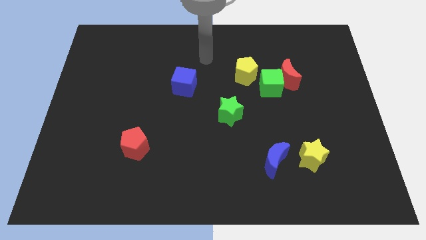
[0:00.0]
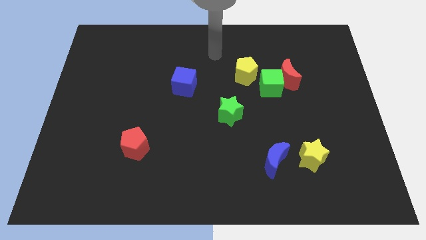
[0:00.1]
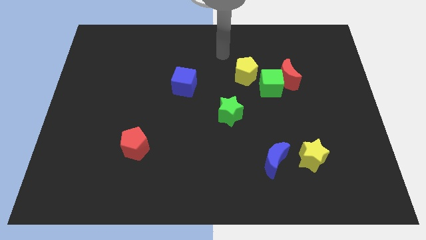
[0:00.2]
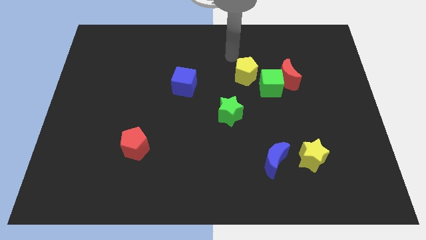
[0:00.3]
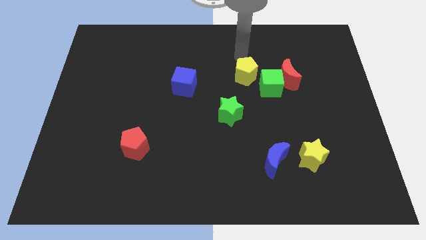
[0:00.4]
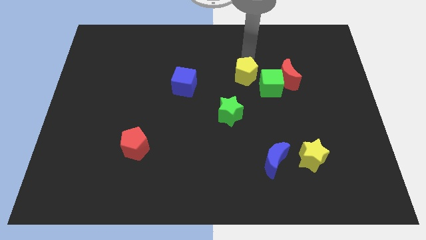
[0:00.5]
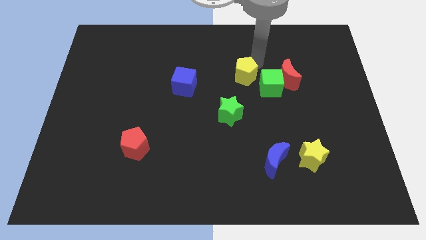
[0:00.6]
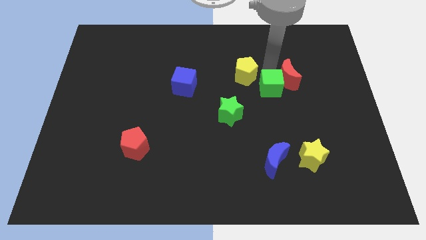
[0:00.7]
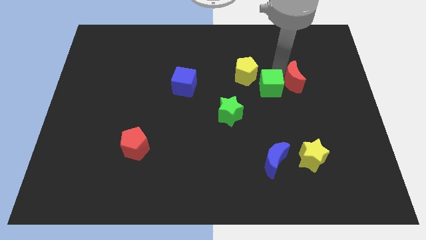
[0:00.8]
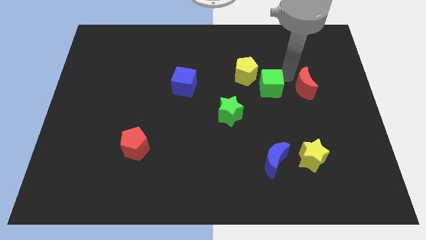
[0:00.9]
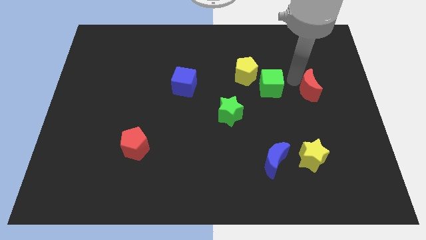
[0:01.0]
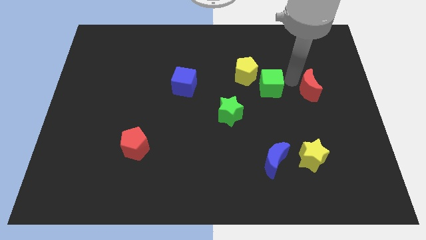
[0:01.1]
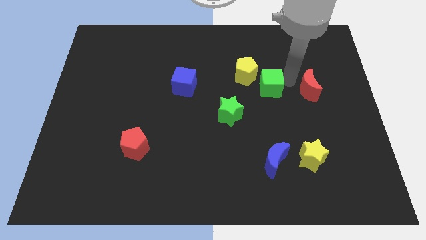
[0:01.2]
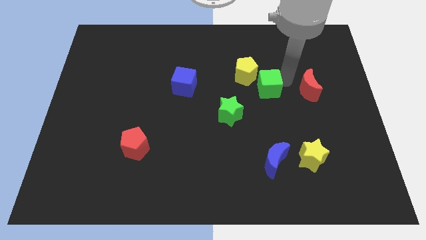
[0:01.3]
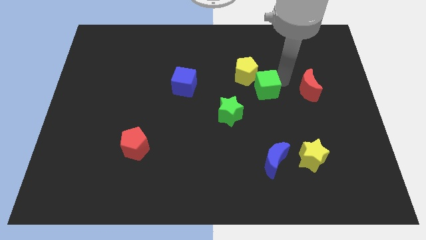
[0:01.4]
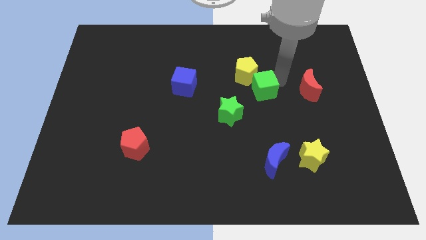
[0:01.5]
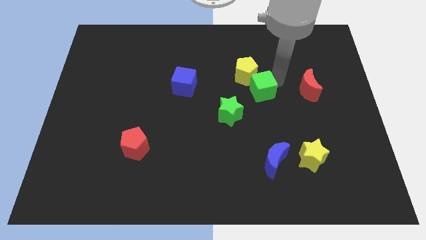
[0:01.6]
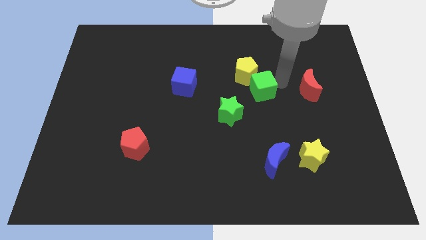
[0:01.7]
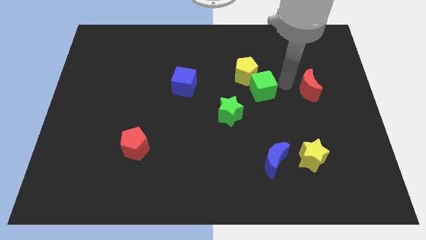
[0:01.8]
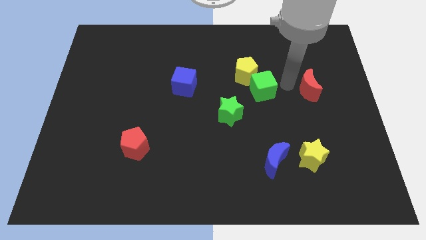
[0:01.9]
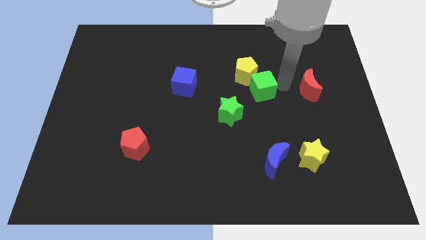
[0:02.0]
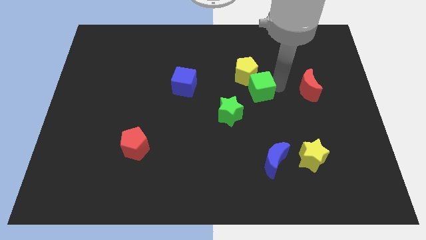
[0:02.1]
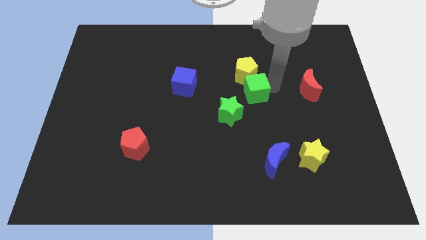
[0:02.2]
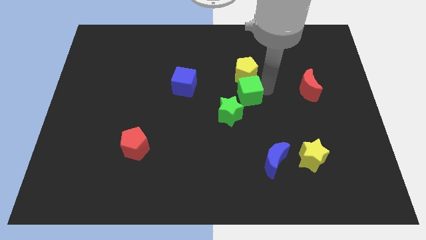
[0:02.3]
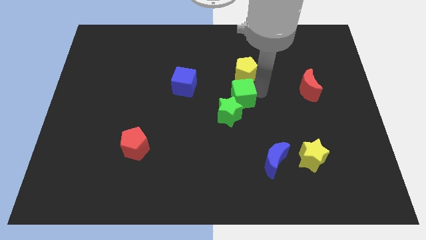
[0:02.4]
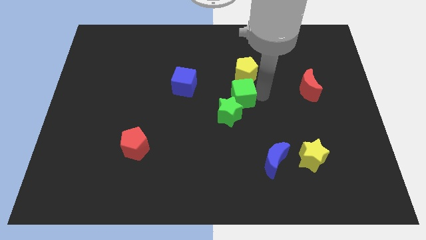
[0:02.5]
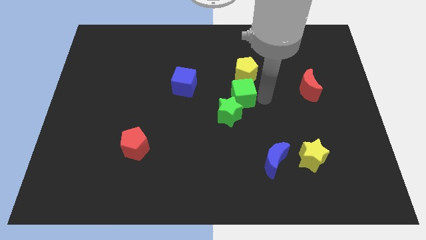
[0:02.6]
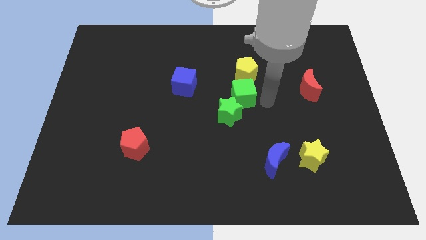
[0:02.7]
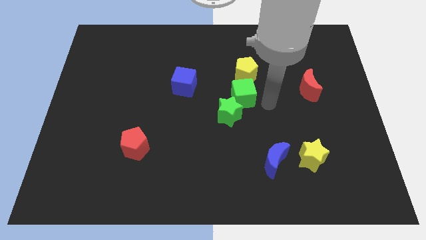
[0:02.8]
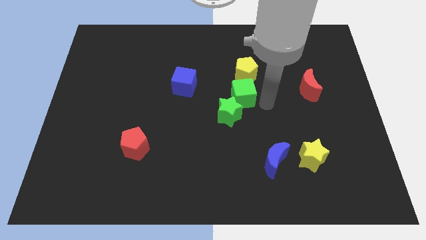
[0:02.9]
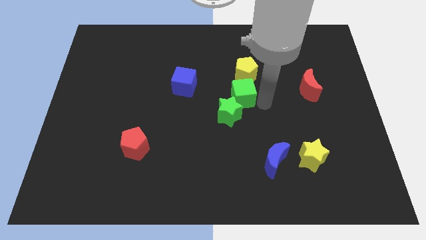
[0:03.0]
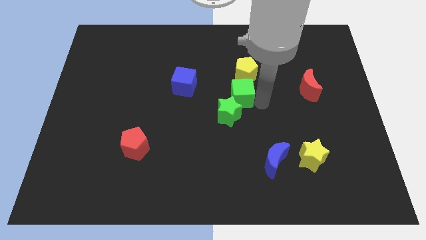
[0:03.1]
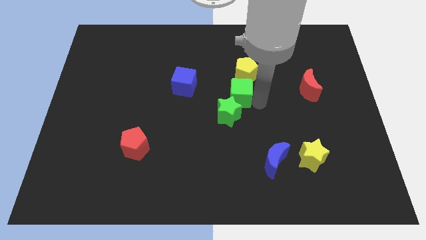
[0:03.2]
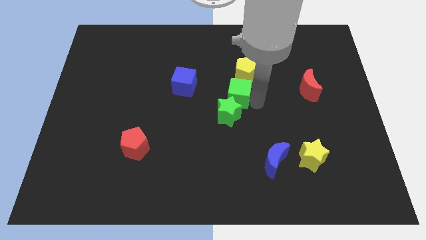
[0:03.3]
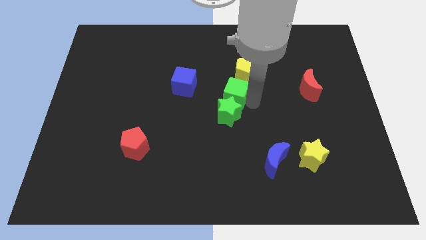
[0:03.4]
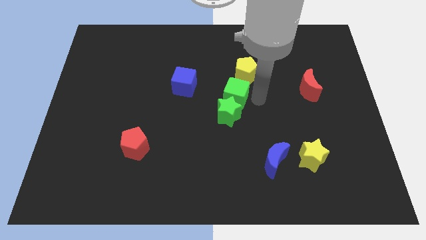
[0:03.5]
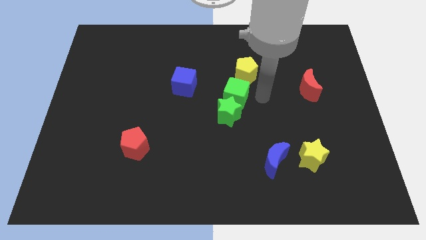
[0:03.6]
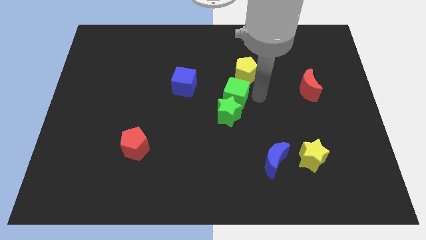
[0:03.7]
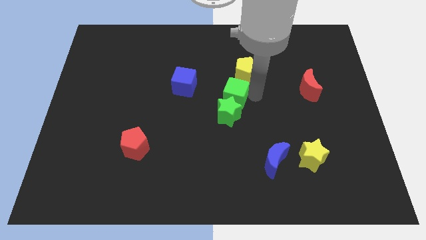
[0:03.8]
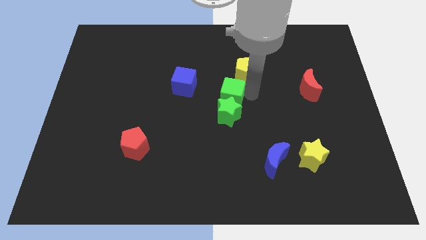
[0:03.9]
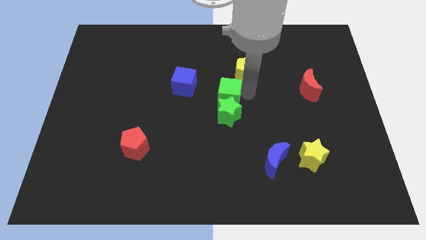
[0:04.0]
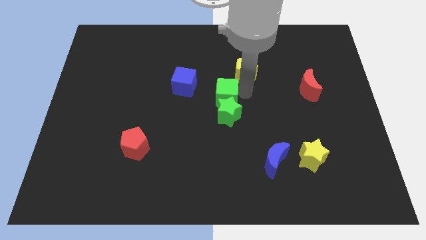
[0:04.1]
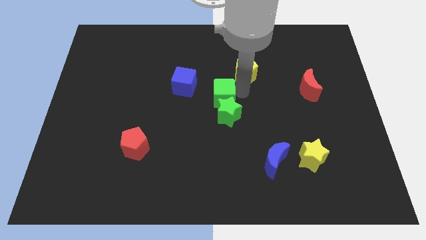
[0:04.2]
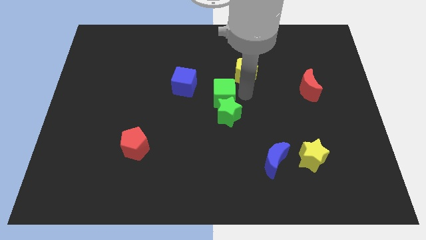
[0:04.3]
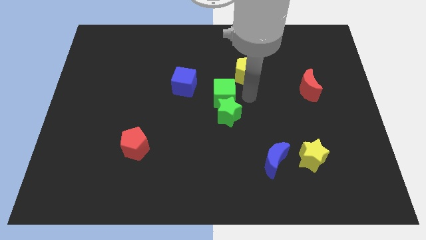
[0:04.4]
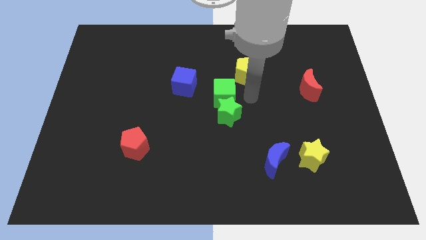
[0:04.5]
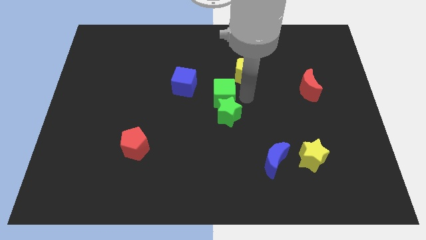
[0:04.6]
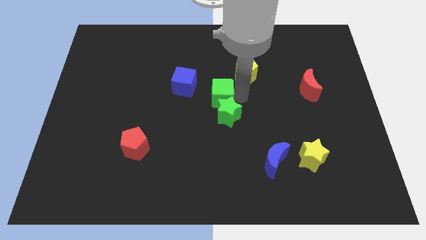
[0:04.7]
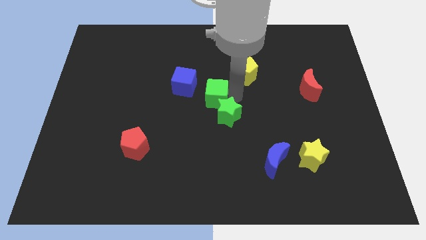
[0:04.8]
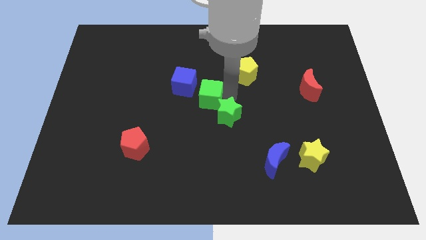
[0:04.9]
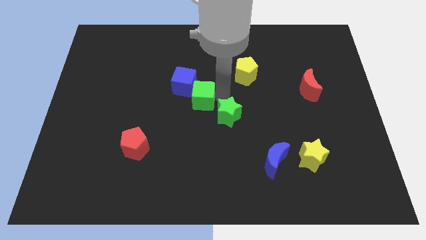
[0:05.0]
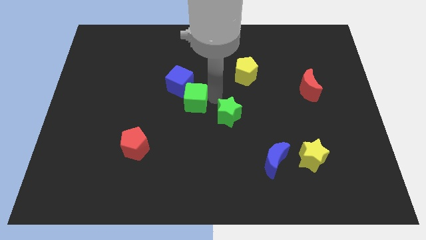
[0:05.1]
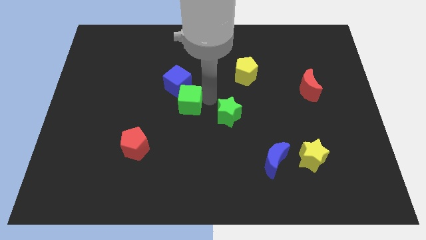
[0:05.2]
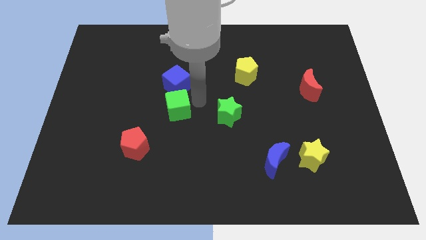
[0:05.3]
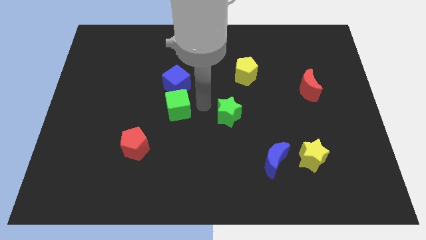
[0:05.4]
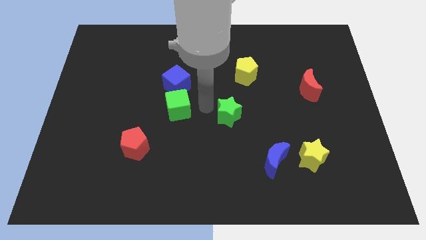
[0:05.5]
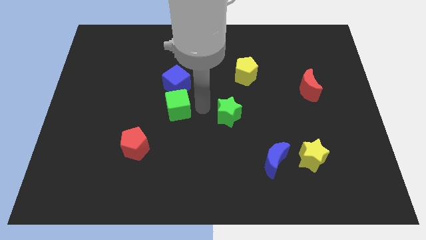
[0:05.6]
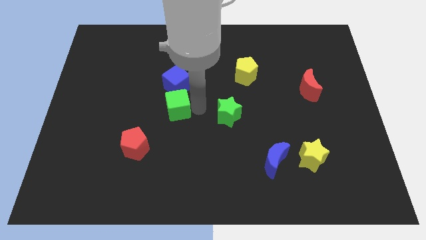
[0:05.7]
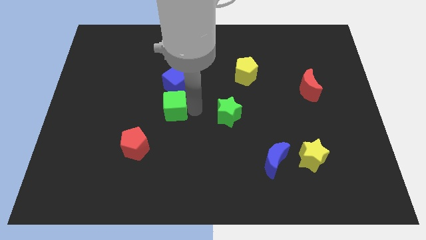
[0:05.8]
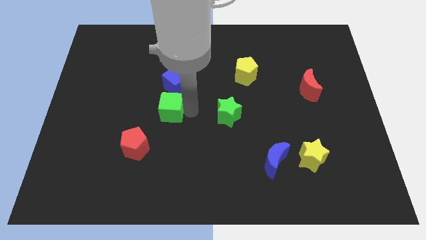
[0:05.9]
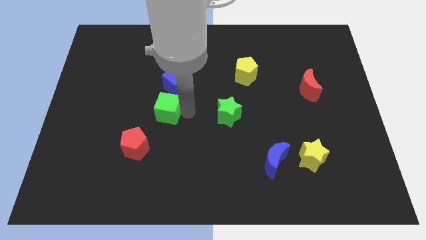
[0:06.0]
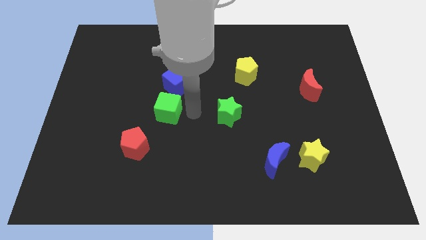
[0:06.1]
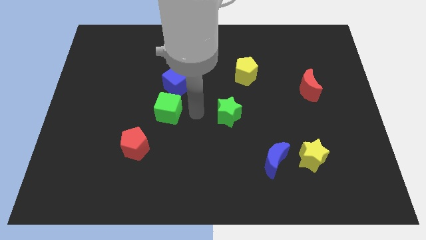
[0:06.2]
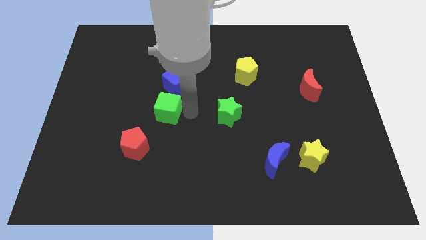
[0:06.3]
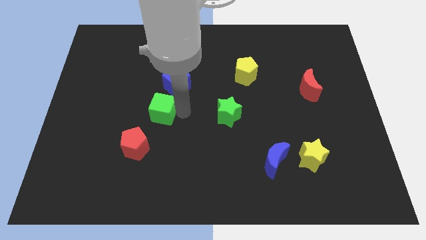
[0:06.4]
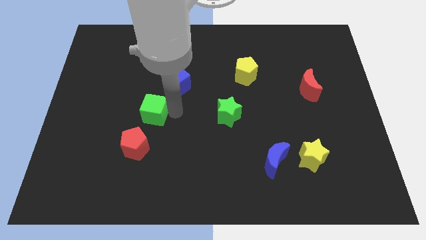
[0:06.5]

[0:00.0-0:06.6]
push the green cube to the top of the red pentagon

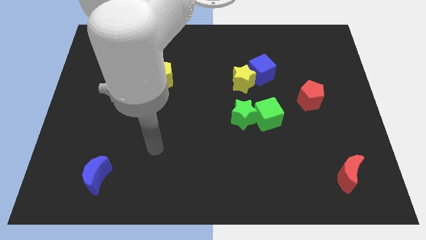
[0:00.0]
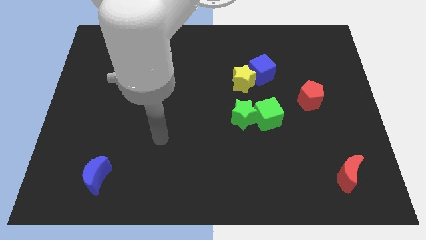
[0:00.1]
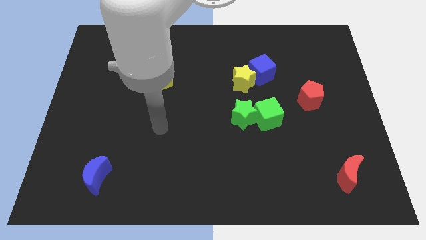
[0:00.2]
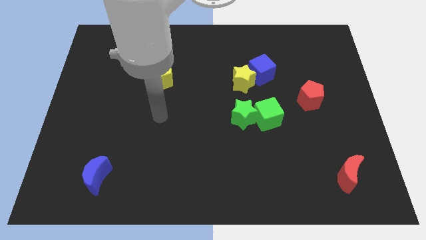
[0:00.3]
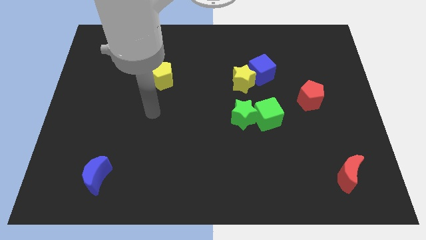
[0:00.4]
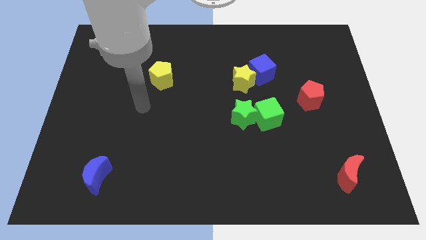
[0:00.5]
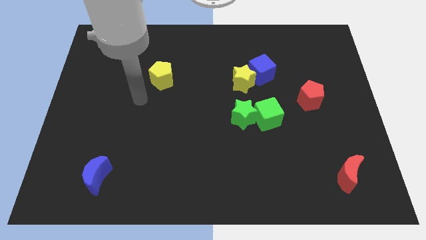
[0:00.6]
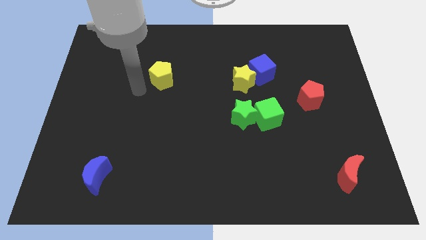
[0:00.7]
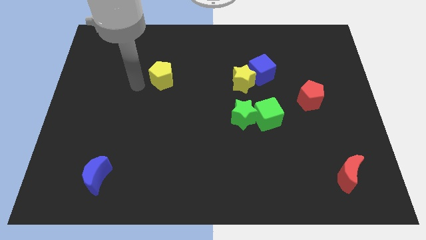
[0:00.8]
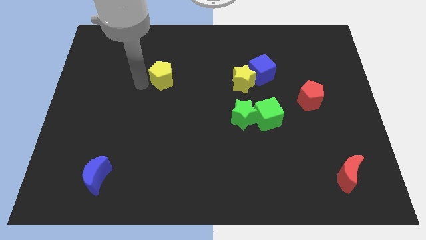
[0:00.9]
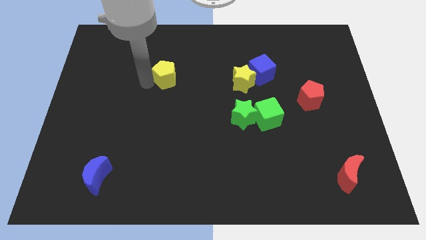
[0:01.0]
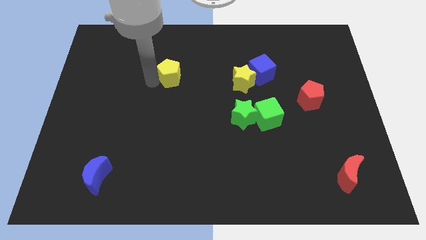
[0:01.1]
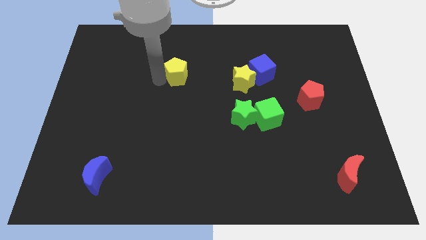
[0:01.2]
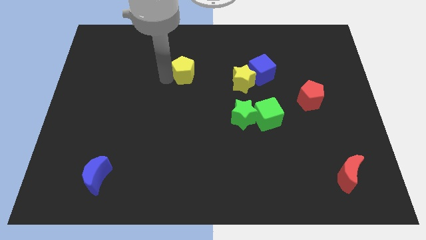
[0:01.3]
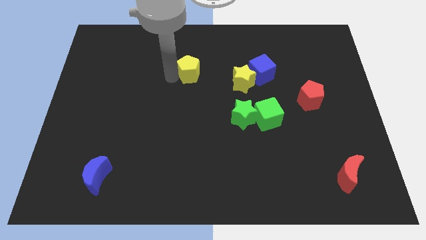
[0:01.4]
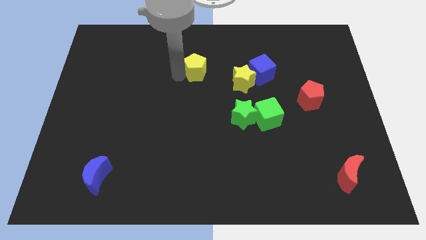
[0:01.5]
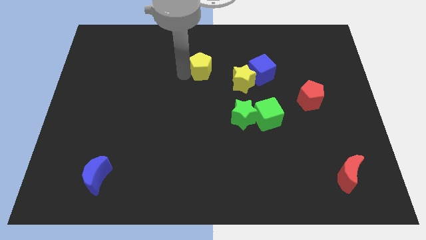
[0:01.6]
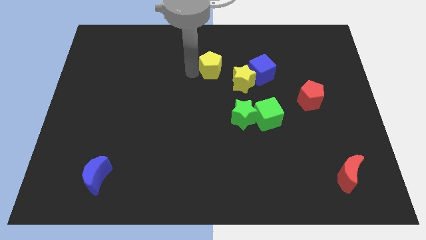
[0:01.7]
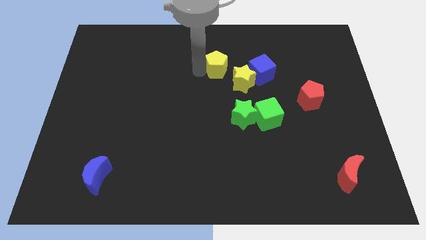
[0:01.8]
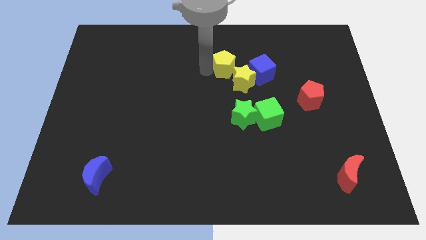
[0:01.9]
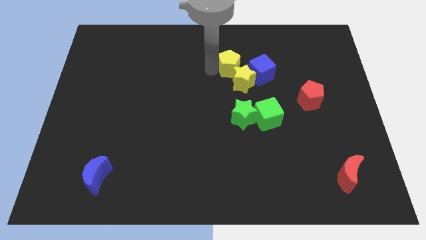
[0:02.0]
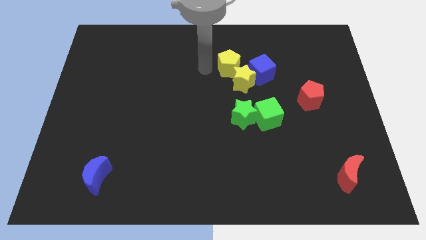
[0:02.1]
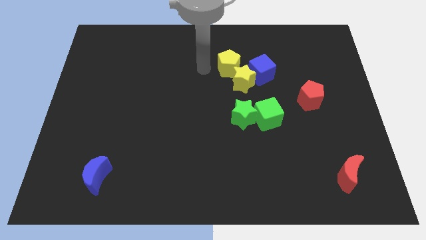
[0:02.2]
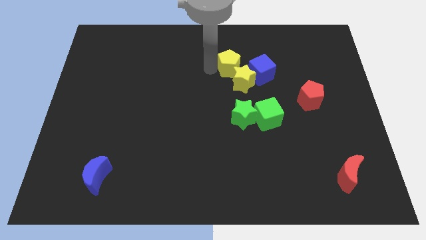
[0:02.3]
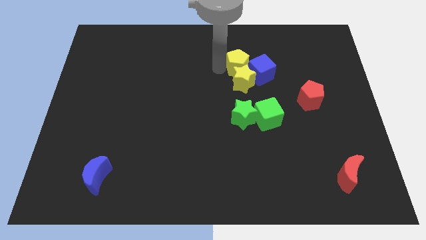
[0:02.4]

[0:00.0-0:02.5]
push the yellow pentagon to the top right side of the yellow star
